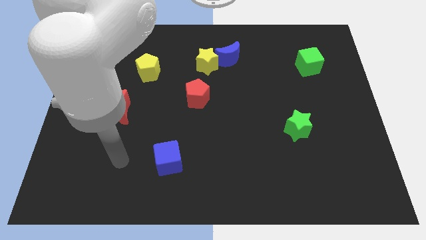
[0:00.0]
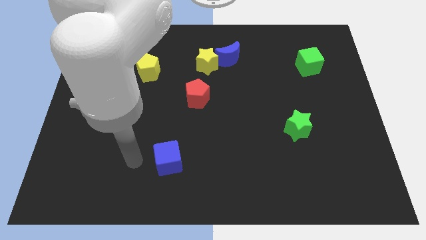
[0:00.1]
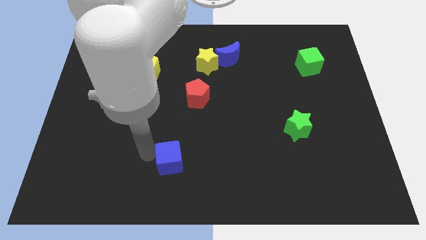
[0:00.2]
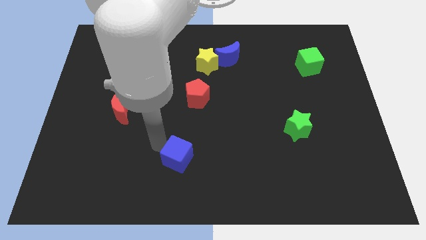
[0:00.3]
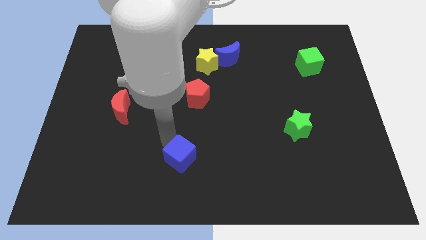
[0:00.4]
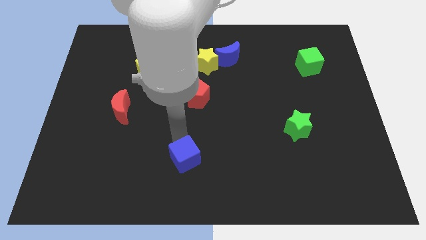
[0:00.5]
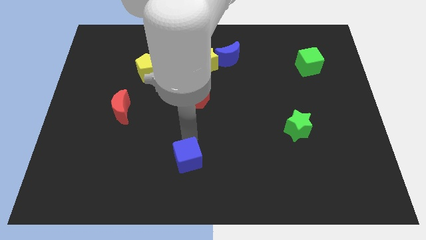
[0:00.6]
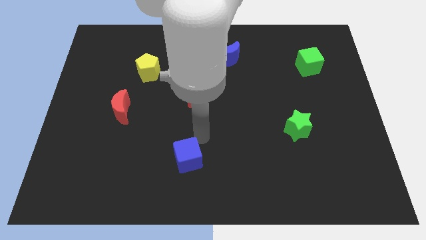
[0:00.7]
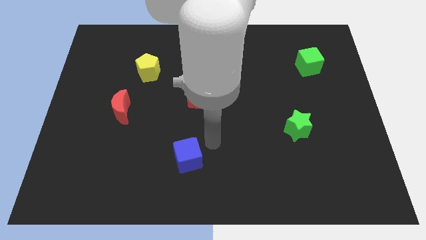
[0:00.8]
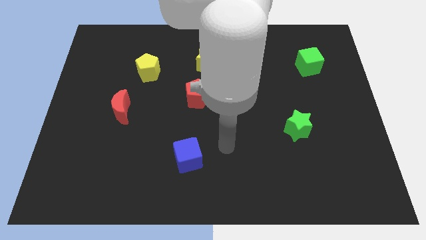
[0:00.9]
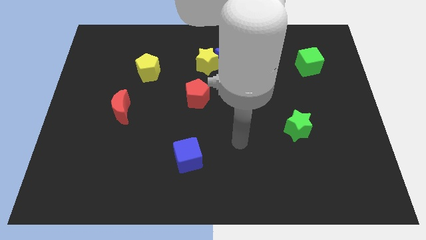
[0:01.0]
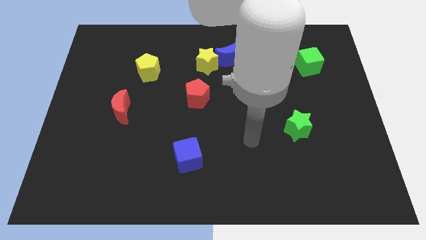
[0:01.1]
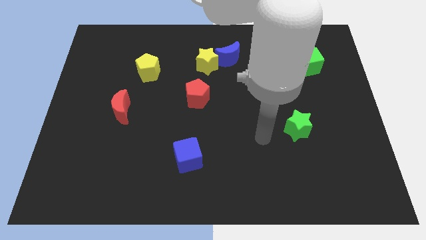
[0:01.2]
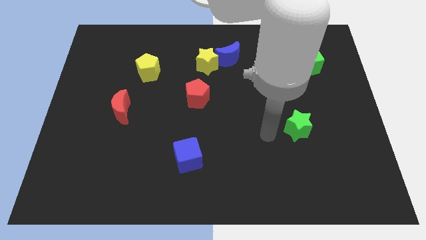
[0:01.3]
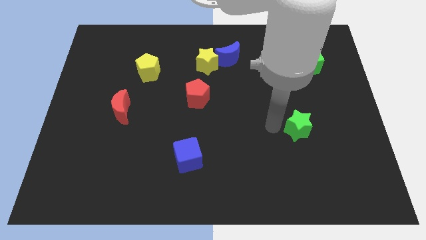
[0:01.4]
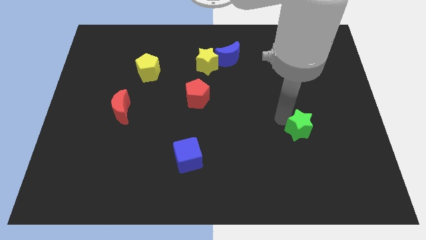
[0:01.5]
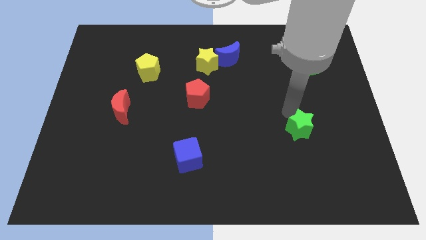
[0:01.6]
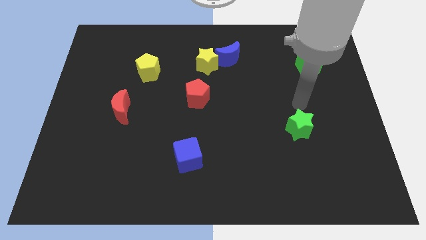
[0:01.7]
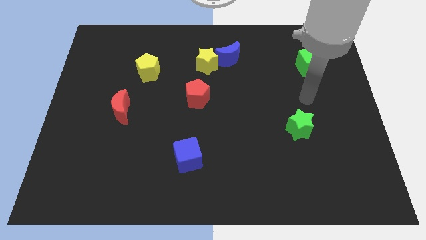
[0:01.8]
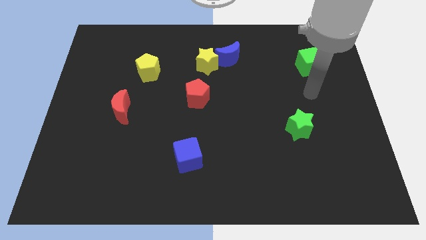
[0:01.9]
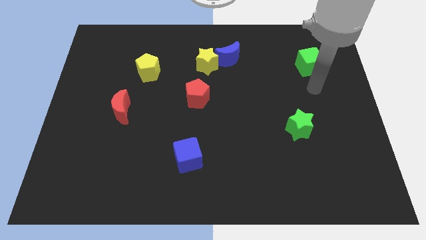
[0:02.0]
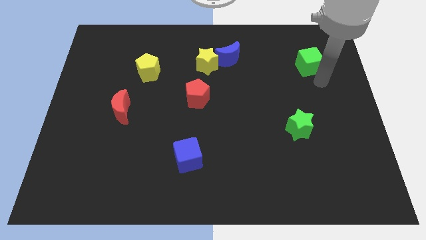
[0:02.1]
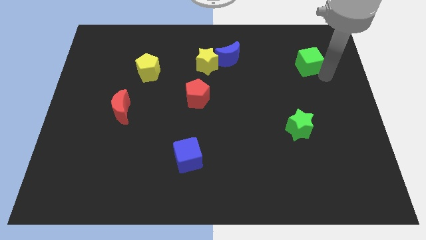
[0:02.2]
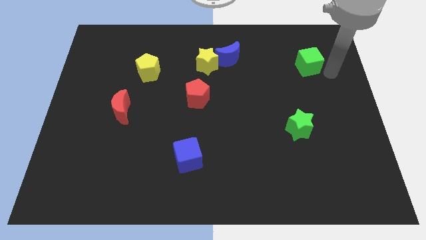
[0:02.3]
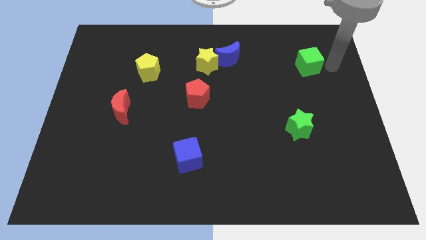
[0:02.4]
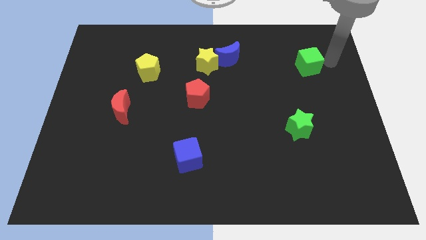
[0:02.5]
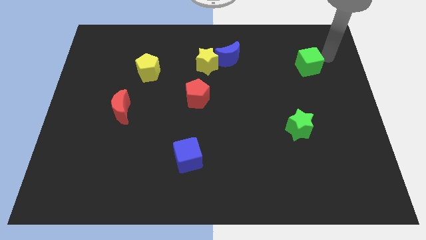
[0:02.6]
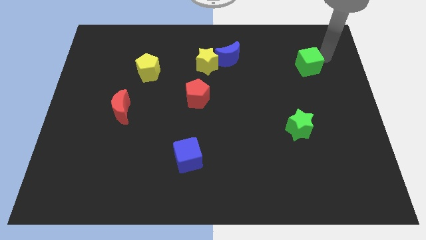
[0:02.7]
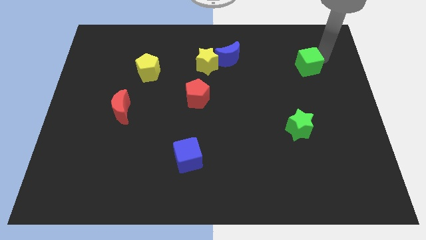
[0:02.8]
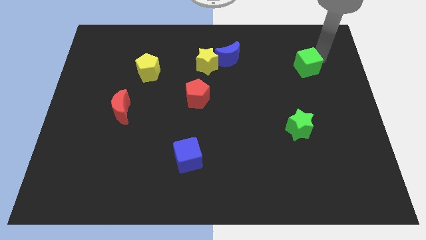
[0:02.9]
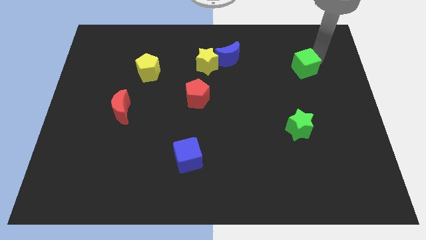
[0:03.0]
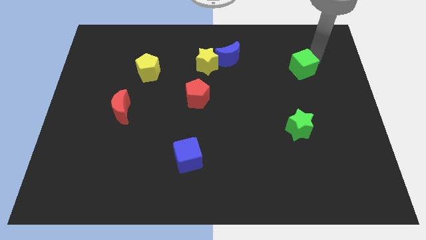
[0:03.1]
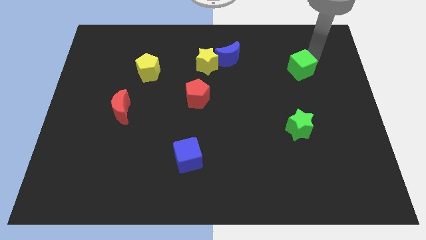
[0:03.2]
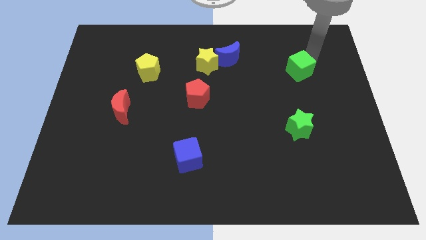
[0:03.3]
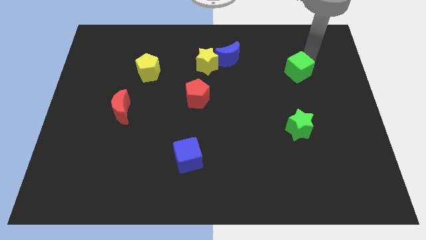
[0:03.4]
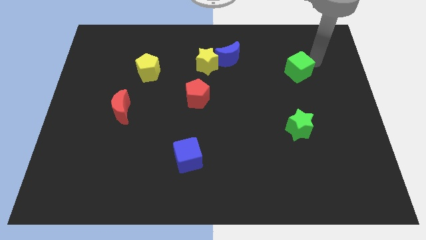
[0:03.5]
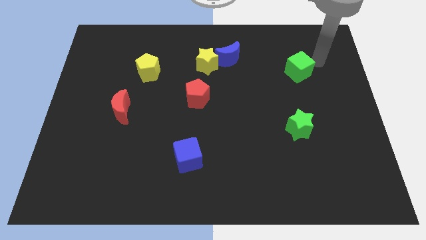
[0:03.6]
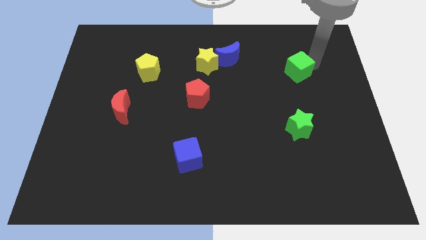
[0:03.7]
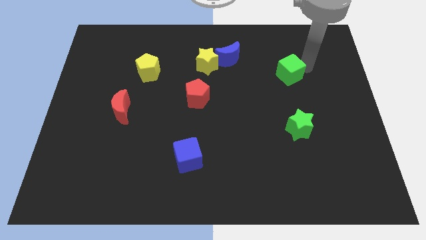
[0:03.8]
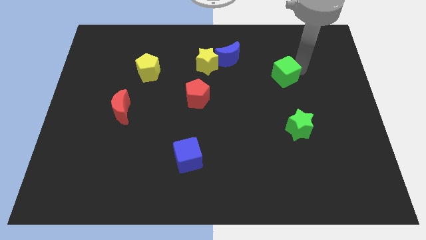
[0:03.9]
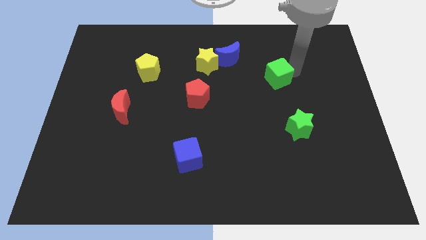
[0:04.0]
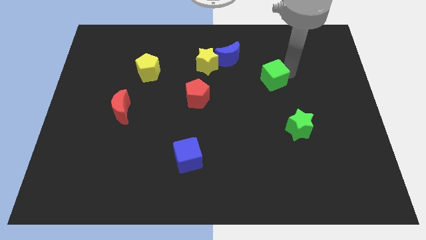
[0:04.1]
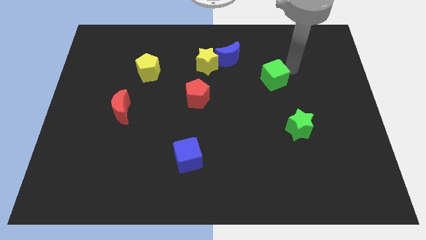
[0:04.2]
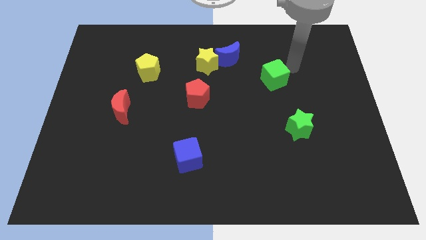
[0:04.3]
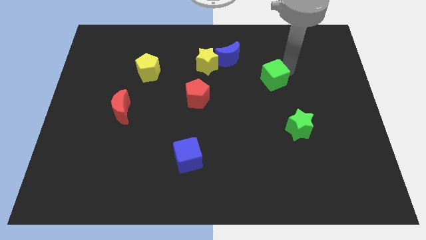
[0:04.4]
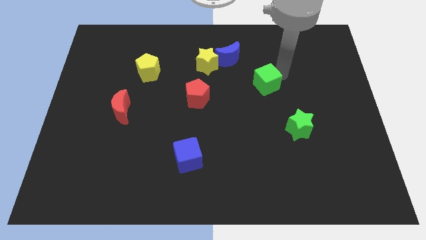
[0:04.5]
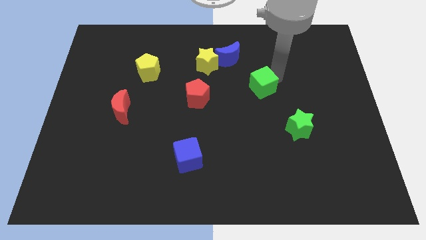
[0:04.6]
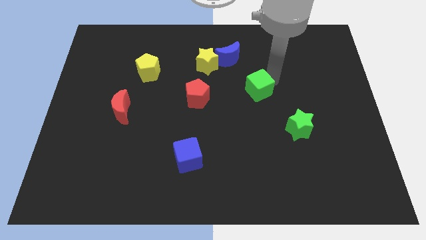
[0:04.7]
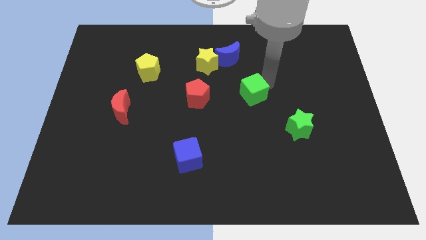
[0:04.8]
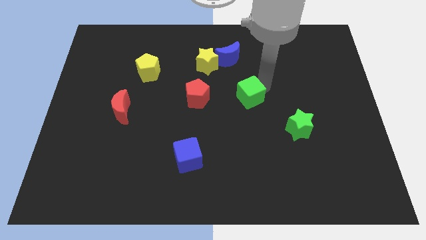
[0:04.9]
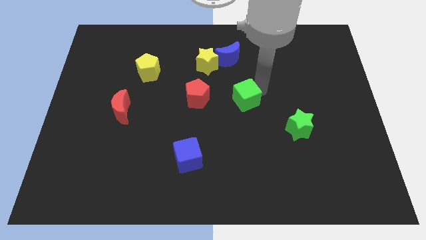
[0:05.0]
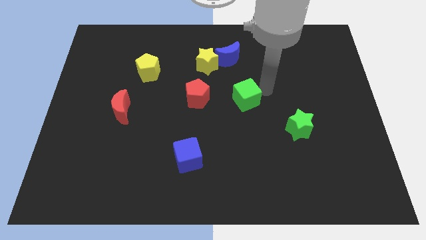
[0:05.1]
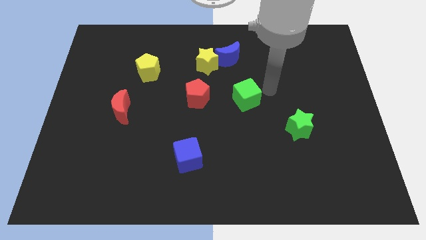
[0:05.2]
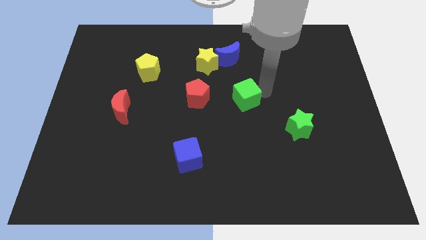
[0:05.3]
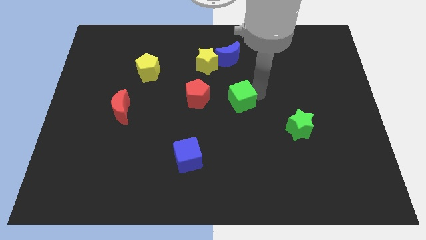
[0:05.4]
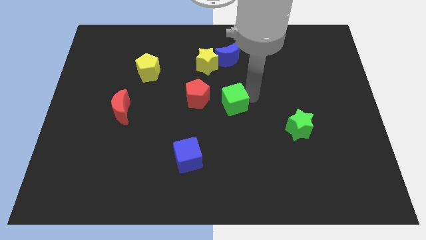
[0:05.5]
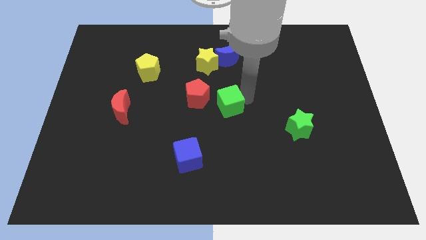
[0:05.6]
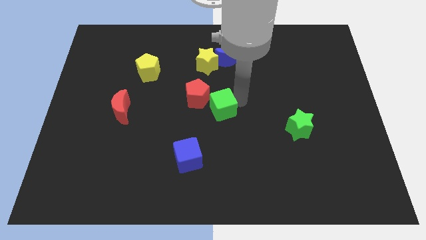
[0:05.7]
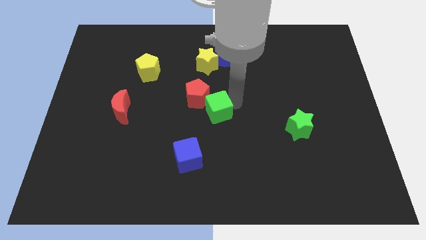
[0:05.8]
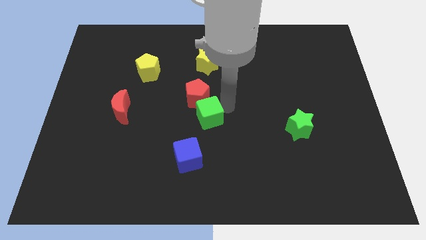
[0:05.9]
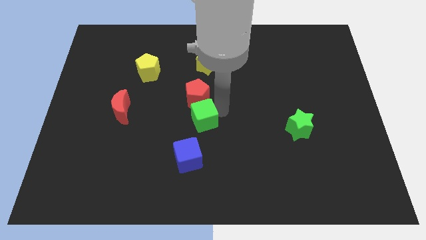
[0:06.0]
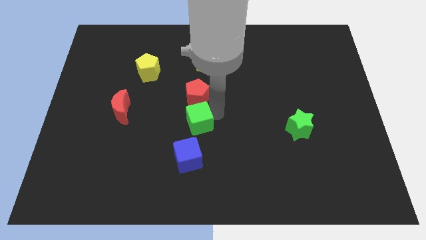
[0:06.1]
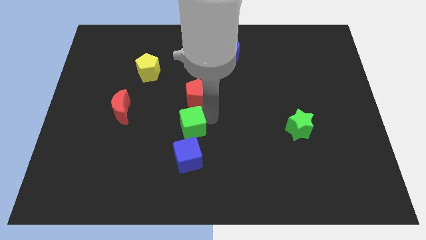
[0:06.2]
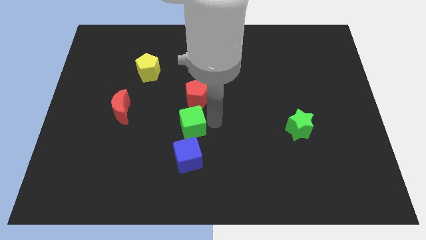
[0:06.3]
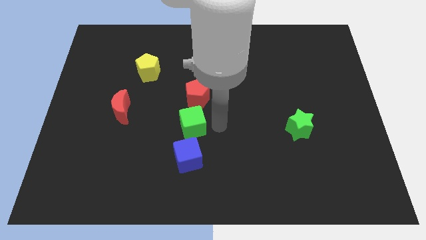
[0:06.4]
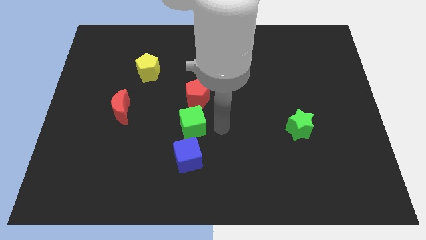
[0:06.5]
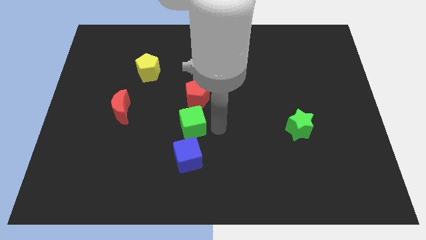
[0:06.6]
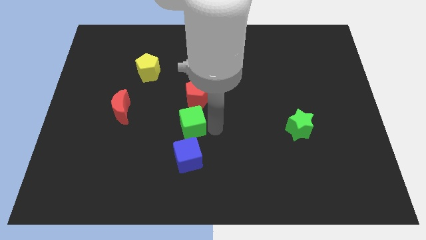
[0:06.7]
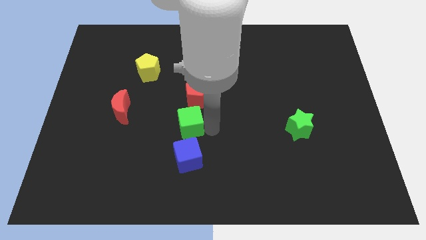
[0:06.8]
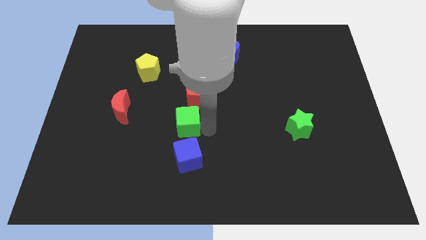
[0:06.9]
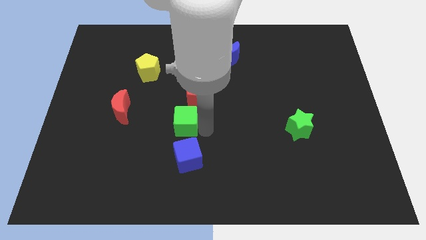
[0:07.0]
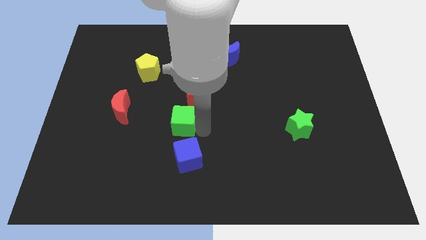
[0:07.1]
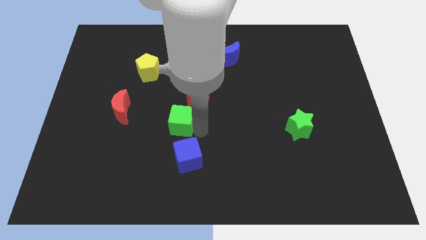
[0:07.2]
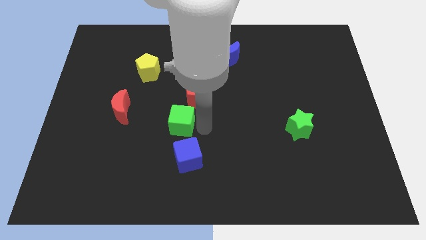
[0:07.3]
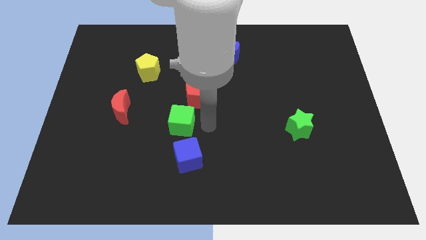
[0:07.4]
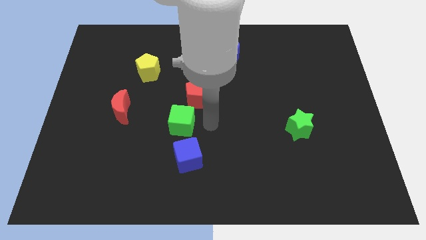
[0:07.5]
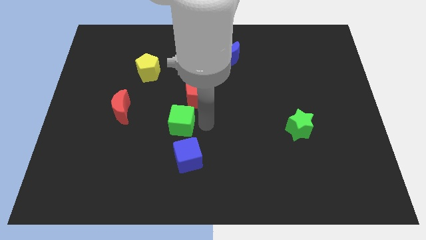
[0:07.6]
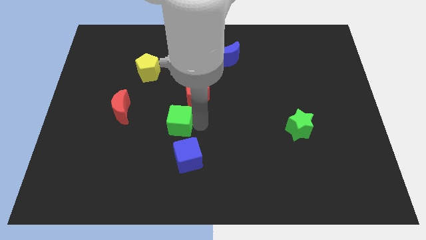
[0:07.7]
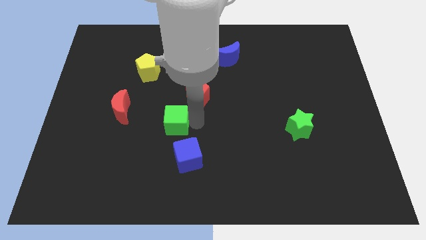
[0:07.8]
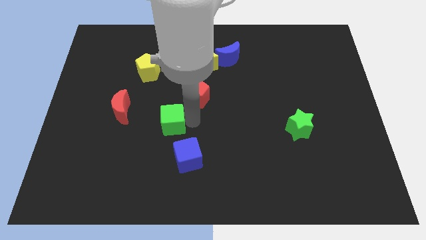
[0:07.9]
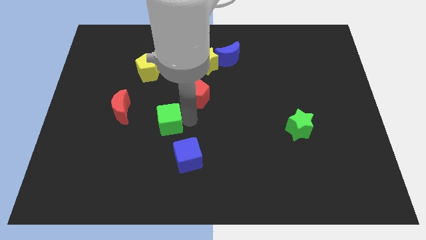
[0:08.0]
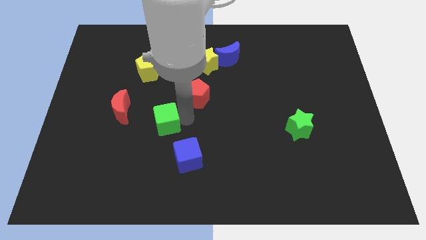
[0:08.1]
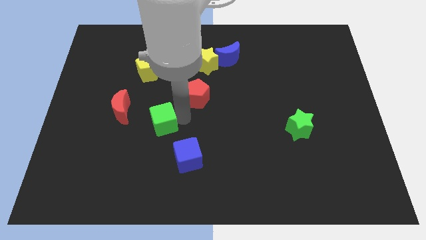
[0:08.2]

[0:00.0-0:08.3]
move the green cube to the bottom right of the red moon
